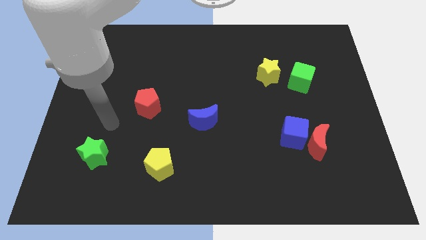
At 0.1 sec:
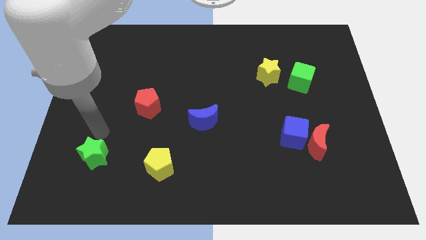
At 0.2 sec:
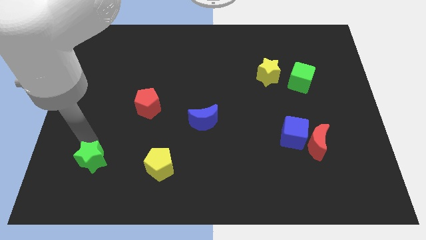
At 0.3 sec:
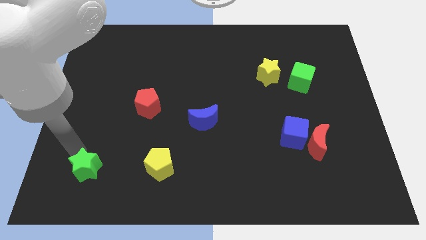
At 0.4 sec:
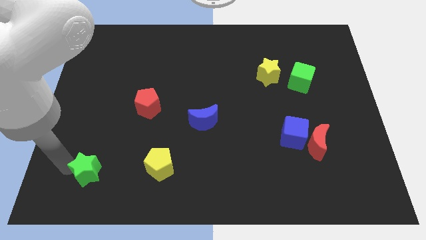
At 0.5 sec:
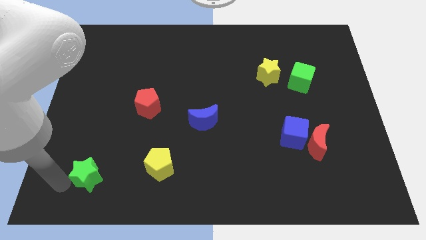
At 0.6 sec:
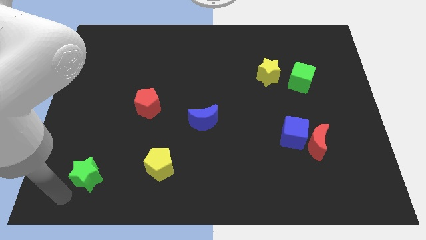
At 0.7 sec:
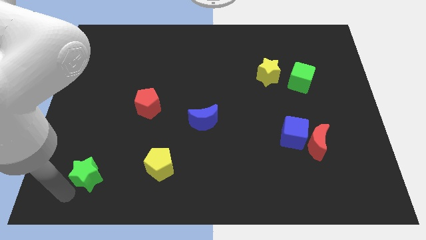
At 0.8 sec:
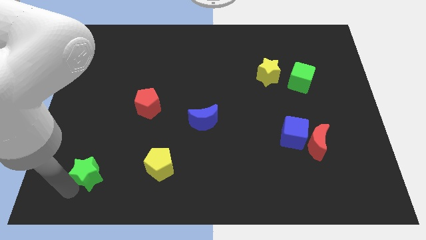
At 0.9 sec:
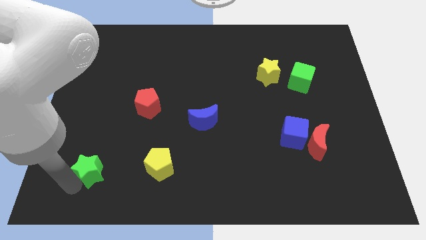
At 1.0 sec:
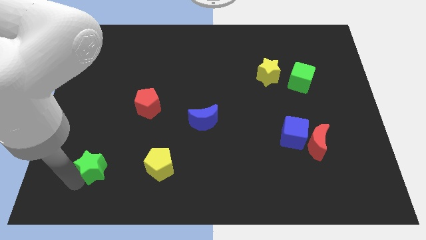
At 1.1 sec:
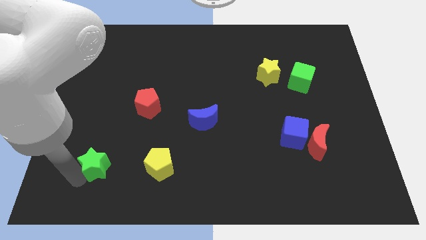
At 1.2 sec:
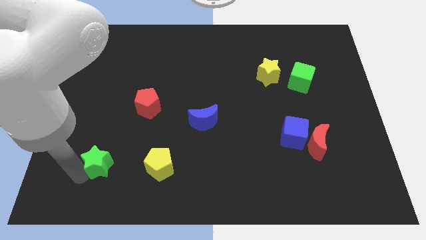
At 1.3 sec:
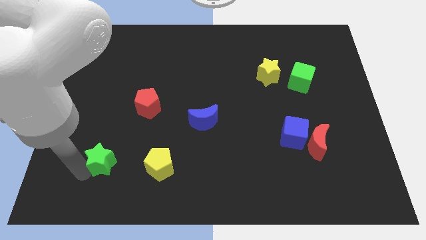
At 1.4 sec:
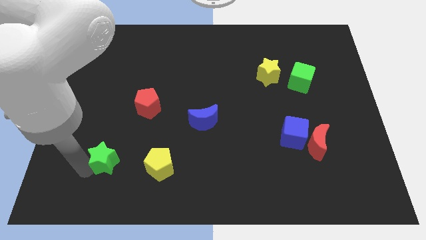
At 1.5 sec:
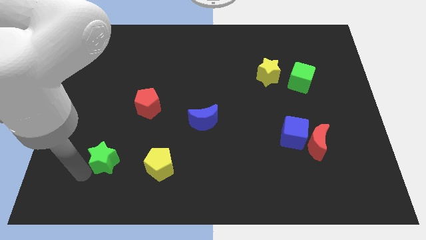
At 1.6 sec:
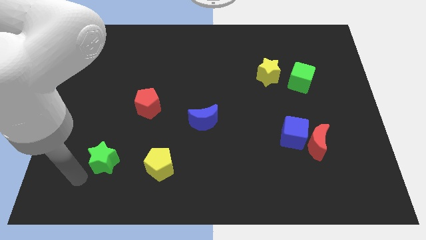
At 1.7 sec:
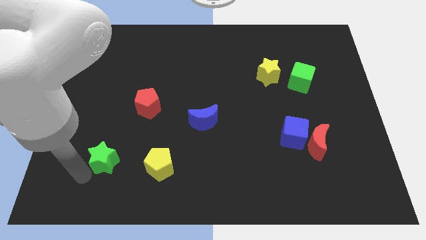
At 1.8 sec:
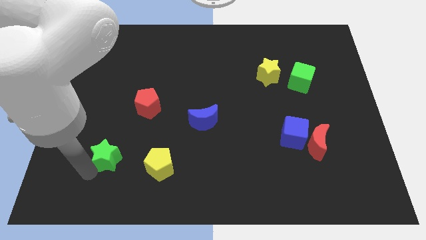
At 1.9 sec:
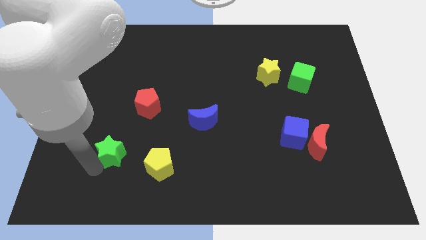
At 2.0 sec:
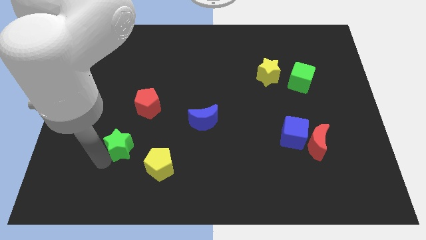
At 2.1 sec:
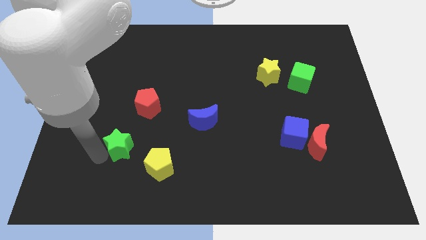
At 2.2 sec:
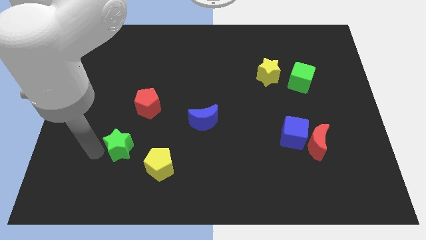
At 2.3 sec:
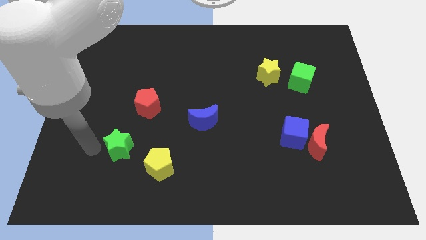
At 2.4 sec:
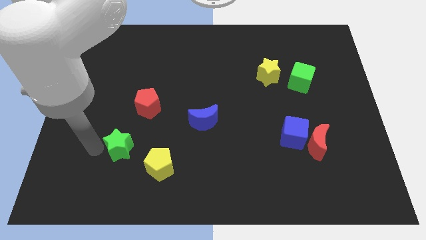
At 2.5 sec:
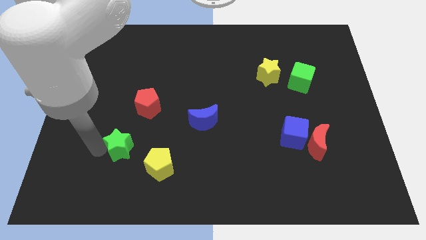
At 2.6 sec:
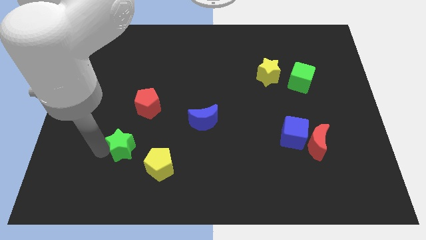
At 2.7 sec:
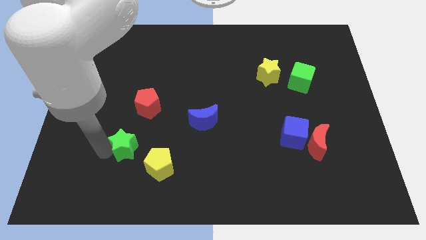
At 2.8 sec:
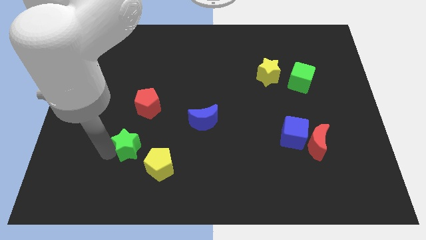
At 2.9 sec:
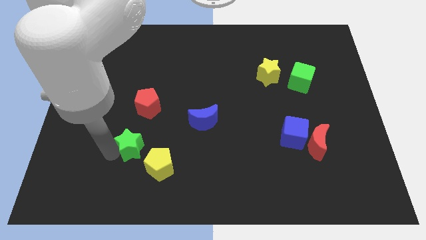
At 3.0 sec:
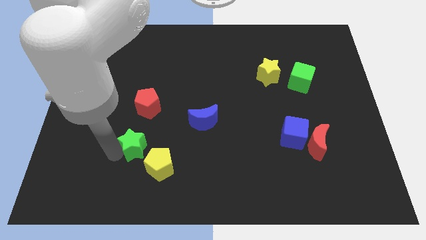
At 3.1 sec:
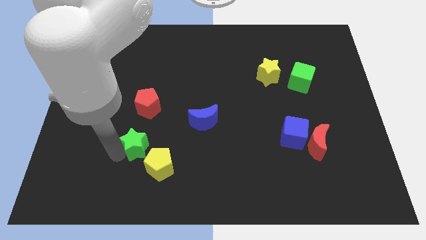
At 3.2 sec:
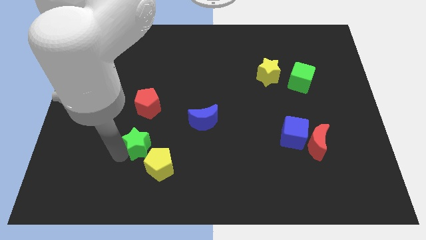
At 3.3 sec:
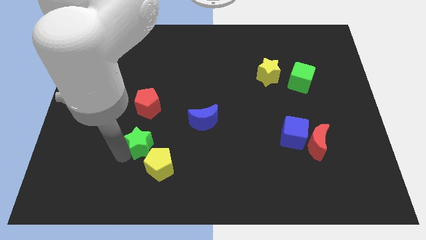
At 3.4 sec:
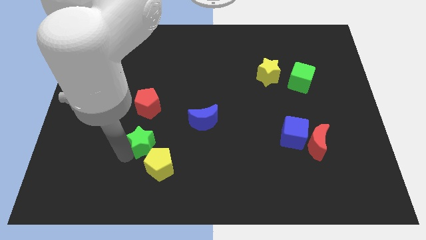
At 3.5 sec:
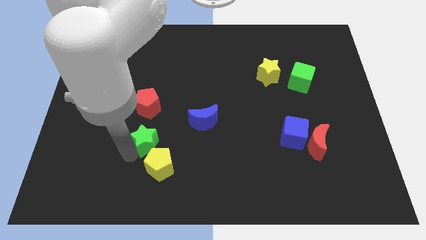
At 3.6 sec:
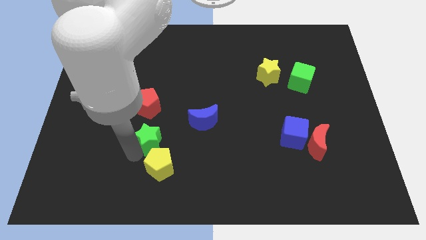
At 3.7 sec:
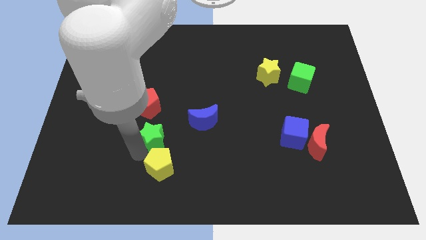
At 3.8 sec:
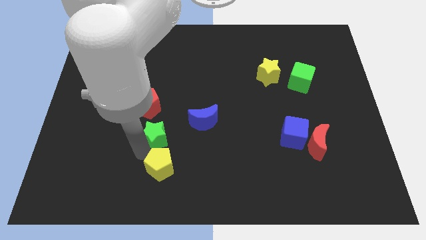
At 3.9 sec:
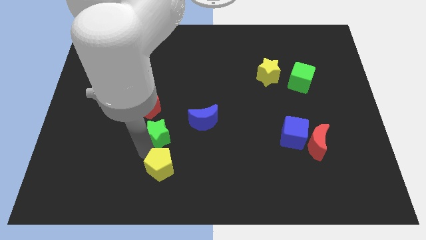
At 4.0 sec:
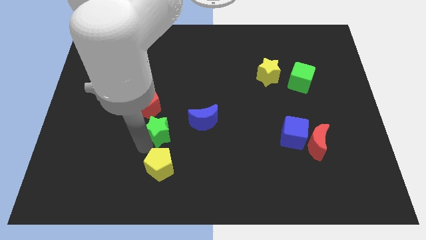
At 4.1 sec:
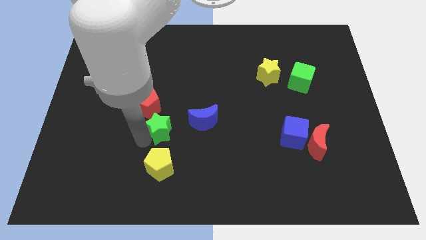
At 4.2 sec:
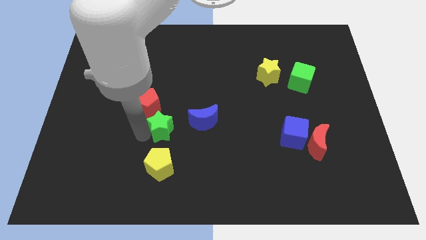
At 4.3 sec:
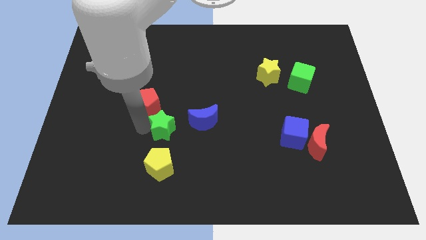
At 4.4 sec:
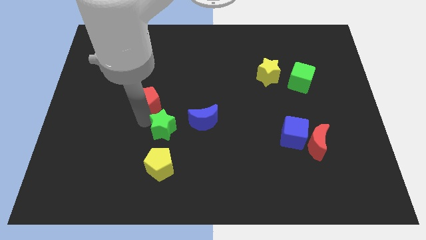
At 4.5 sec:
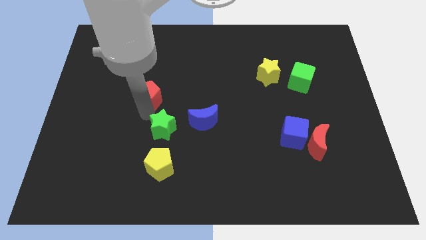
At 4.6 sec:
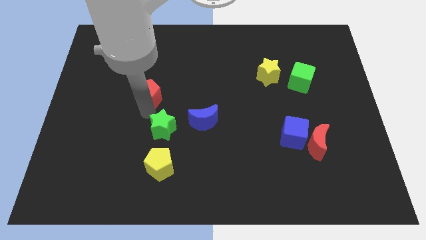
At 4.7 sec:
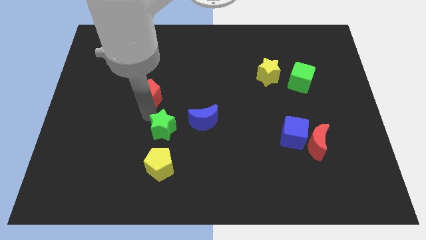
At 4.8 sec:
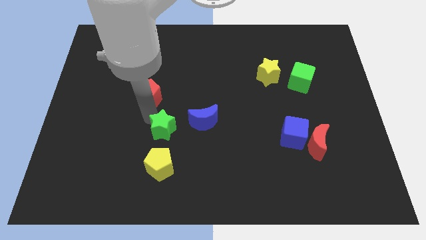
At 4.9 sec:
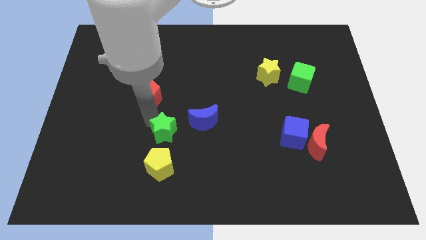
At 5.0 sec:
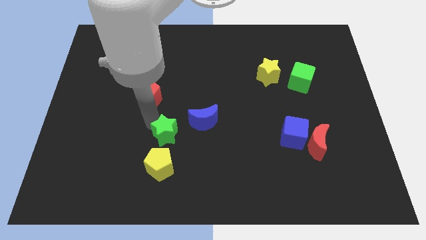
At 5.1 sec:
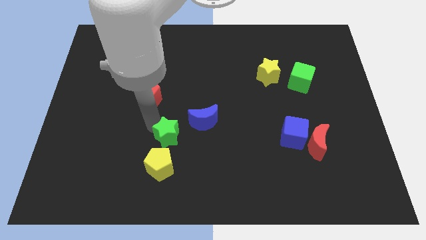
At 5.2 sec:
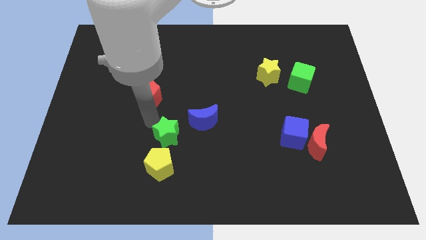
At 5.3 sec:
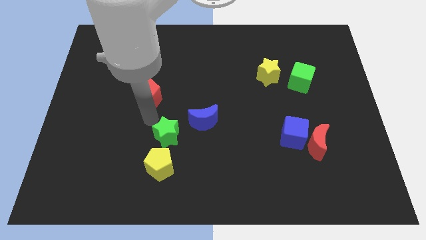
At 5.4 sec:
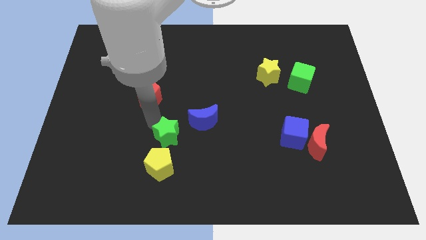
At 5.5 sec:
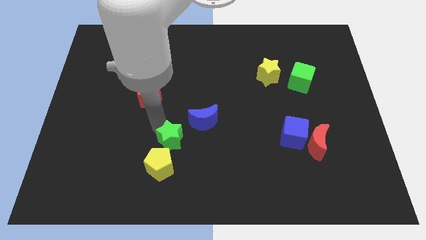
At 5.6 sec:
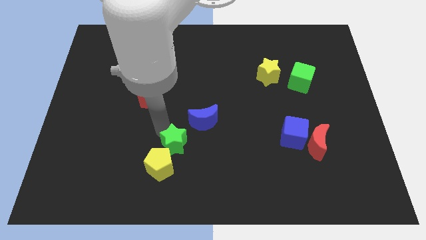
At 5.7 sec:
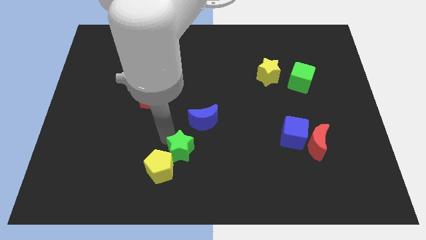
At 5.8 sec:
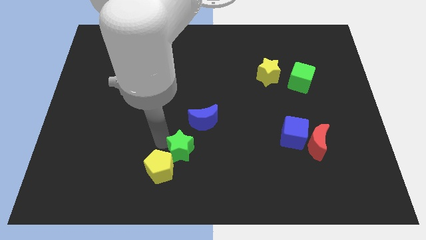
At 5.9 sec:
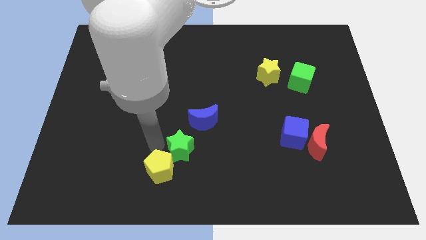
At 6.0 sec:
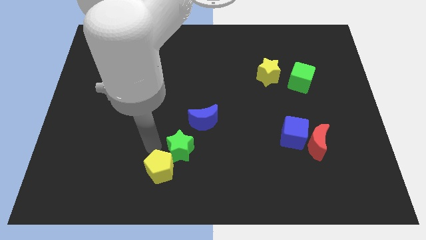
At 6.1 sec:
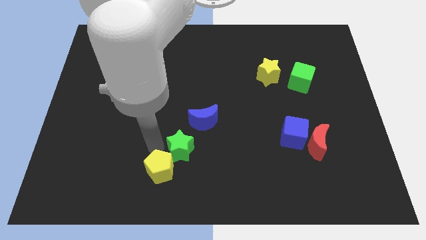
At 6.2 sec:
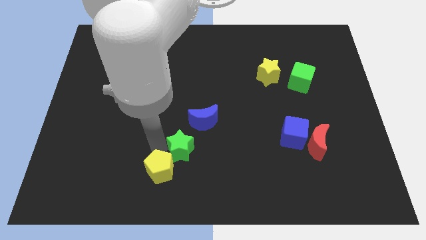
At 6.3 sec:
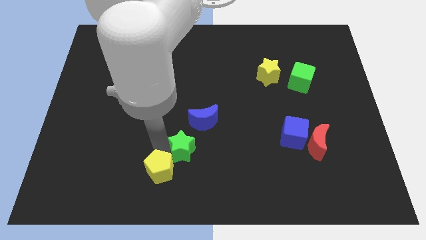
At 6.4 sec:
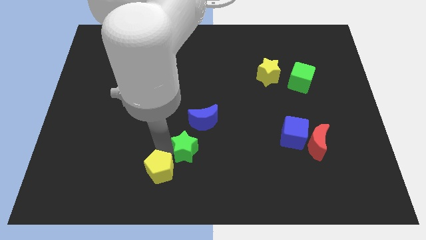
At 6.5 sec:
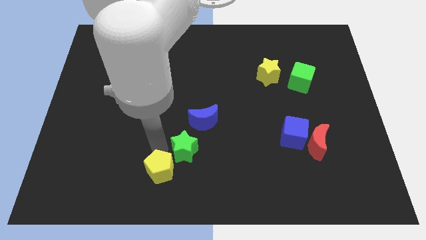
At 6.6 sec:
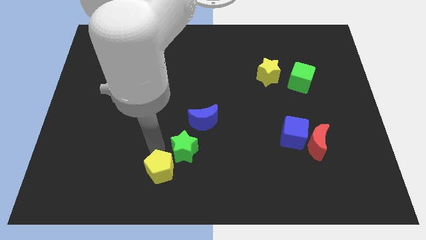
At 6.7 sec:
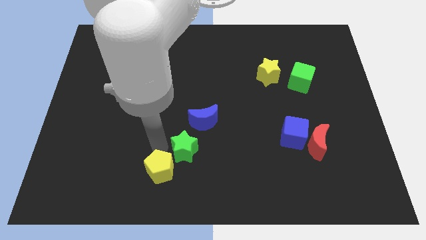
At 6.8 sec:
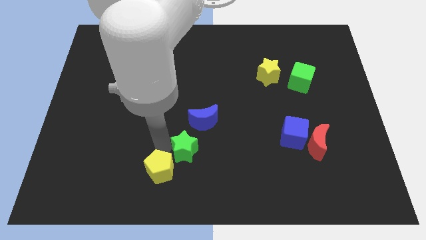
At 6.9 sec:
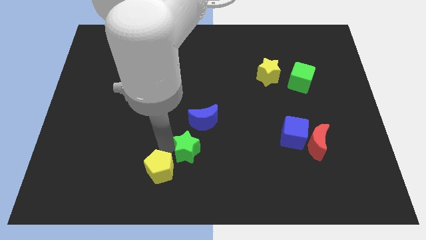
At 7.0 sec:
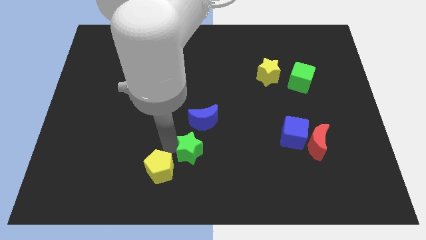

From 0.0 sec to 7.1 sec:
slide the green star right

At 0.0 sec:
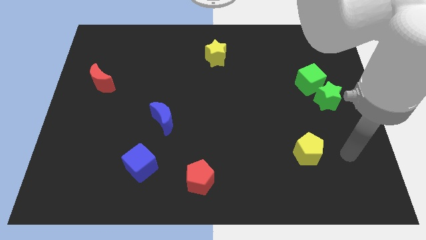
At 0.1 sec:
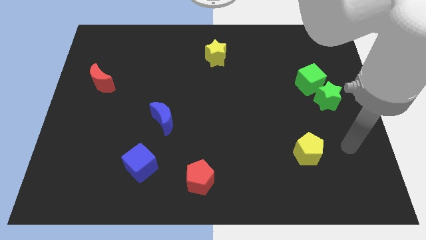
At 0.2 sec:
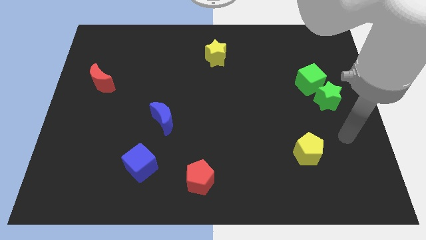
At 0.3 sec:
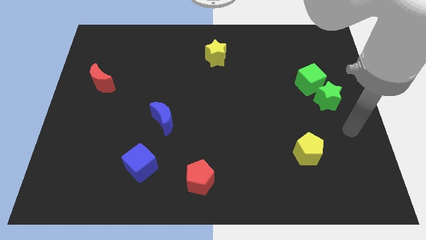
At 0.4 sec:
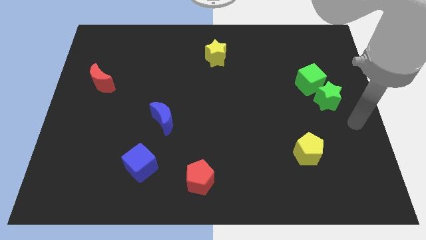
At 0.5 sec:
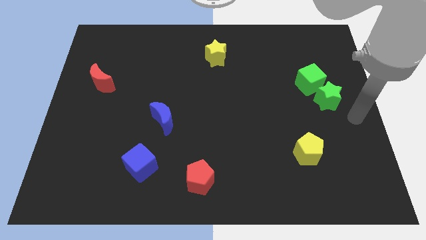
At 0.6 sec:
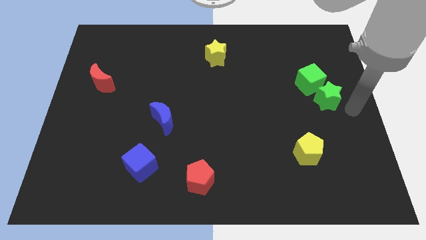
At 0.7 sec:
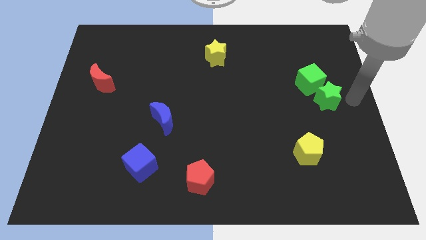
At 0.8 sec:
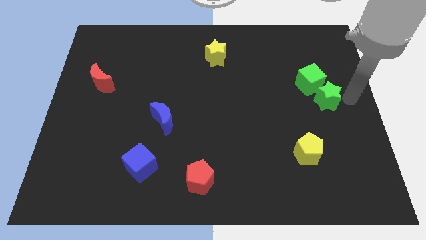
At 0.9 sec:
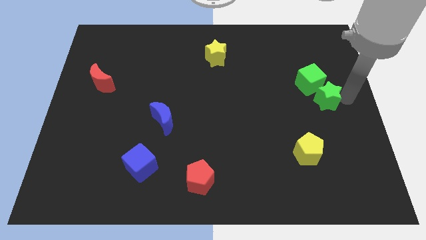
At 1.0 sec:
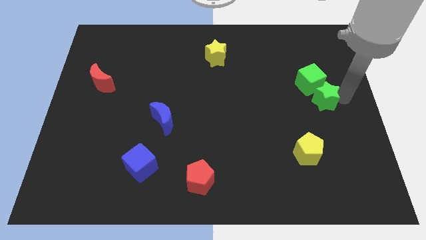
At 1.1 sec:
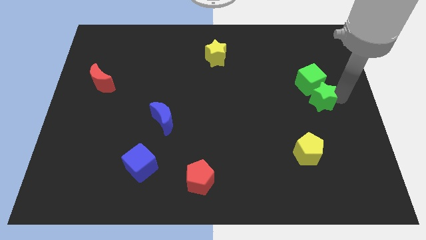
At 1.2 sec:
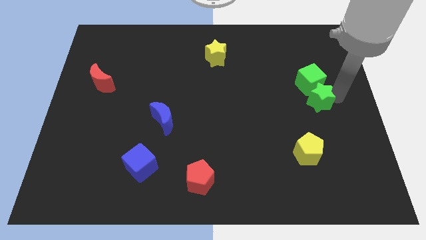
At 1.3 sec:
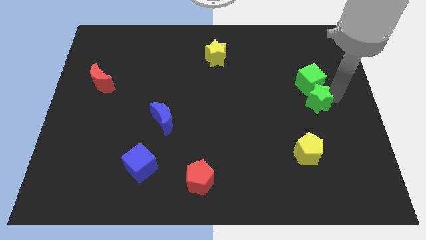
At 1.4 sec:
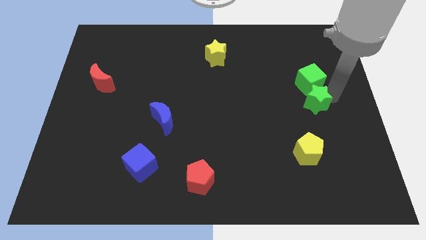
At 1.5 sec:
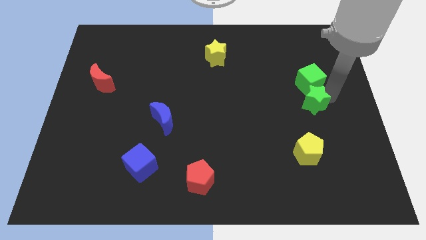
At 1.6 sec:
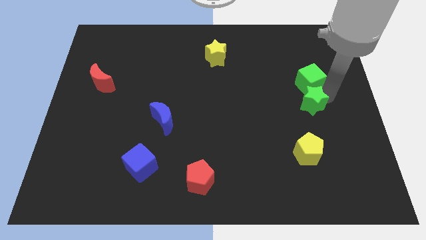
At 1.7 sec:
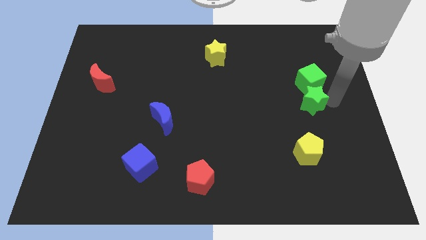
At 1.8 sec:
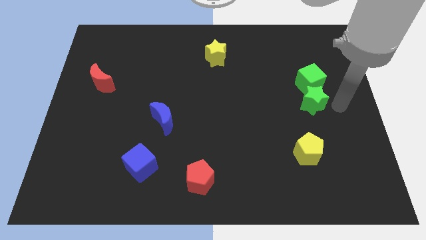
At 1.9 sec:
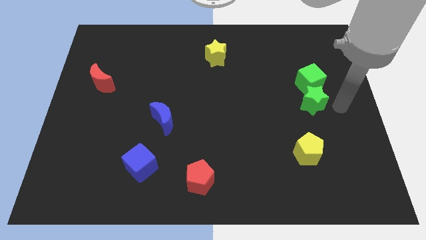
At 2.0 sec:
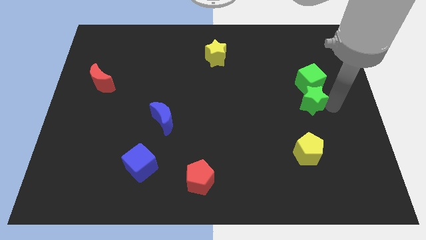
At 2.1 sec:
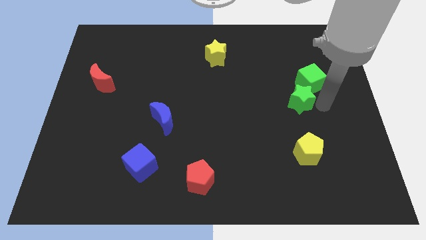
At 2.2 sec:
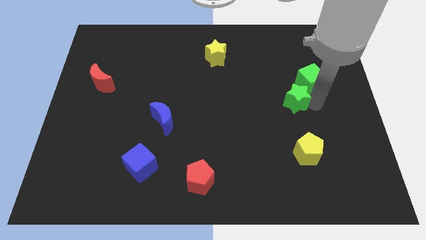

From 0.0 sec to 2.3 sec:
slide the green star a little to the left
